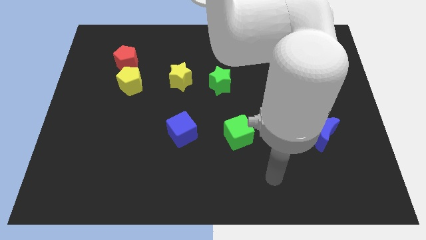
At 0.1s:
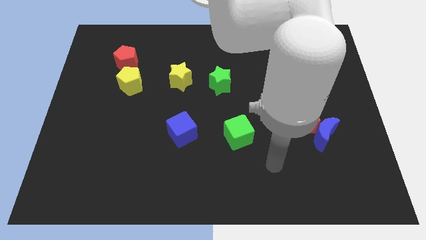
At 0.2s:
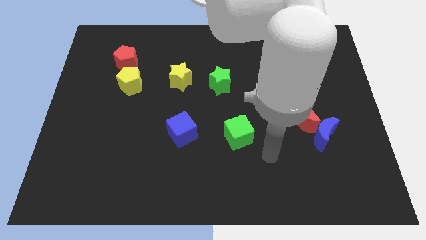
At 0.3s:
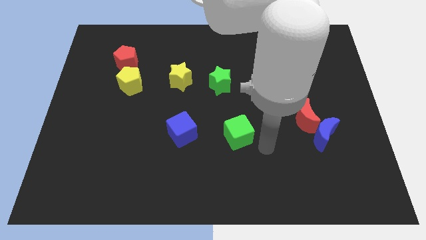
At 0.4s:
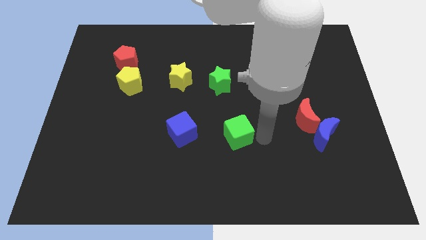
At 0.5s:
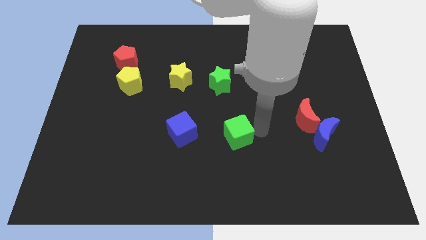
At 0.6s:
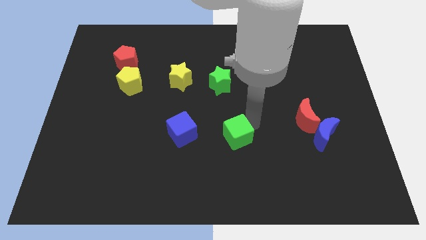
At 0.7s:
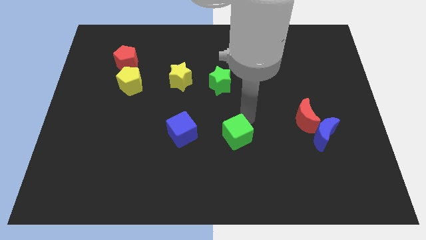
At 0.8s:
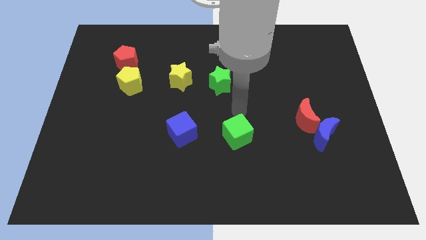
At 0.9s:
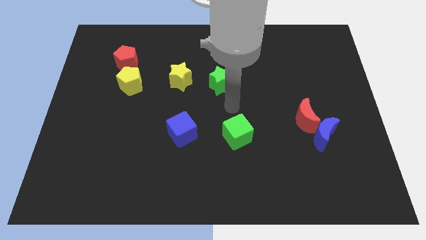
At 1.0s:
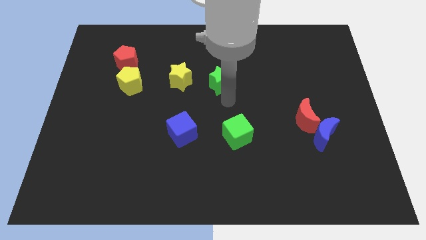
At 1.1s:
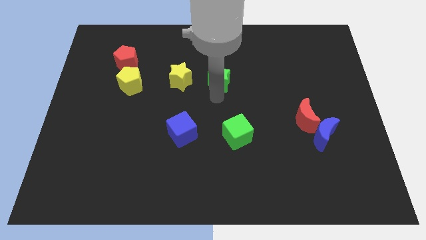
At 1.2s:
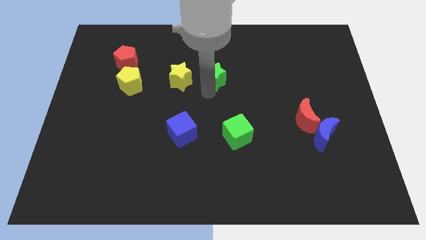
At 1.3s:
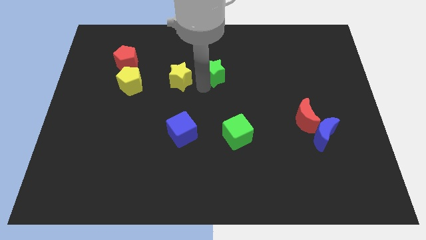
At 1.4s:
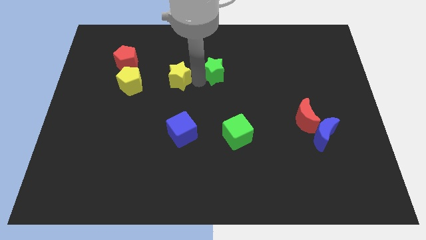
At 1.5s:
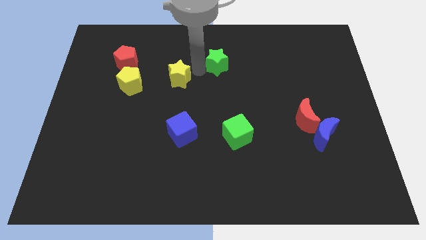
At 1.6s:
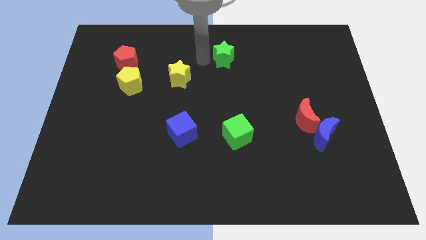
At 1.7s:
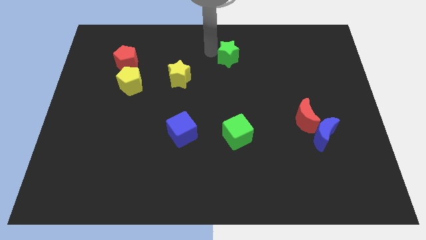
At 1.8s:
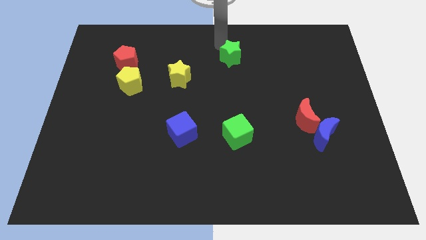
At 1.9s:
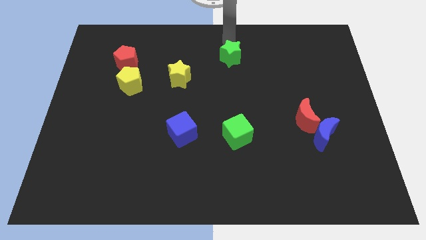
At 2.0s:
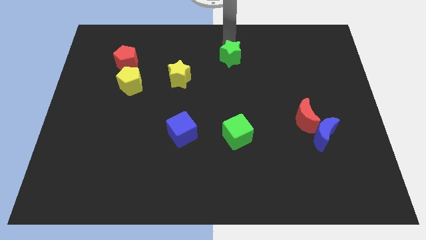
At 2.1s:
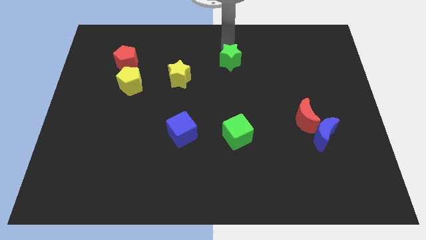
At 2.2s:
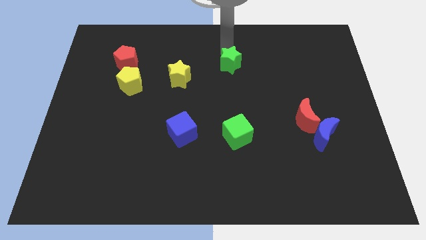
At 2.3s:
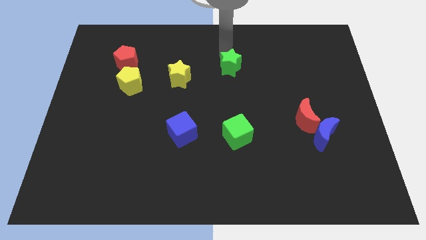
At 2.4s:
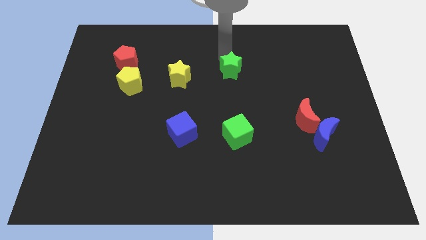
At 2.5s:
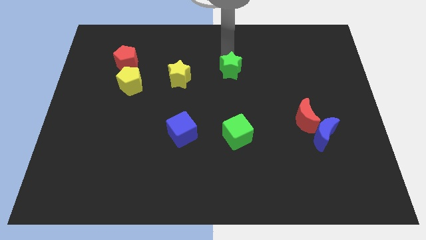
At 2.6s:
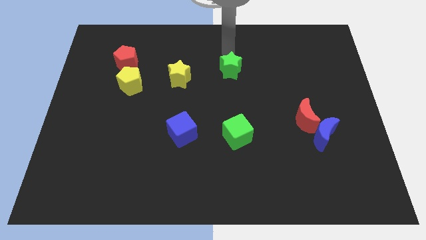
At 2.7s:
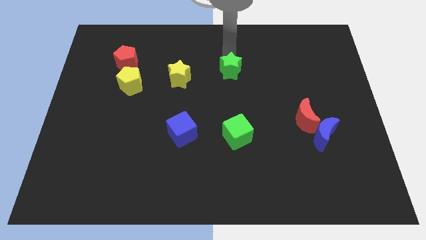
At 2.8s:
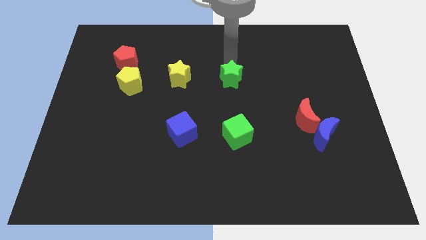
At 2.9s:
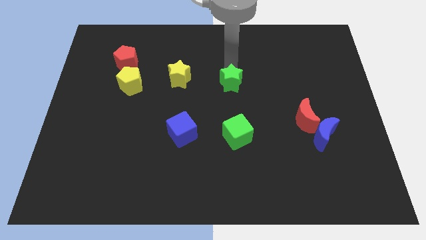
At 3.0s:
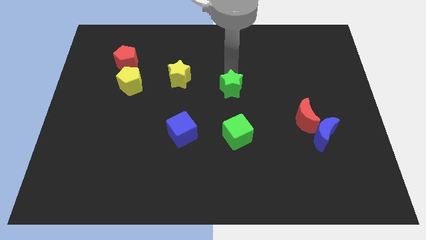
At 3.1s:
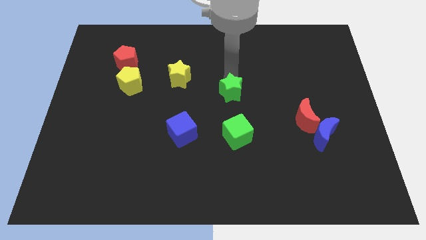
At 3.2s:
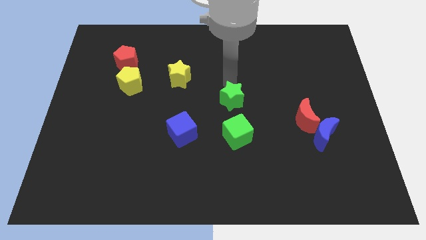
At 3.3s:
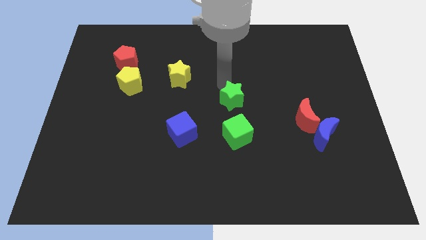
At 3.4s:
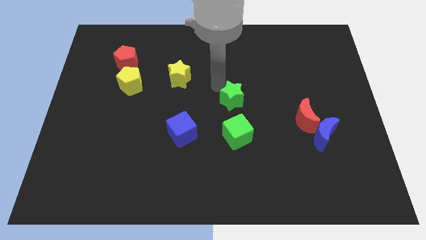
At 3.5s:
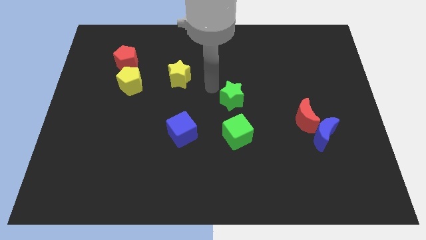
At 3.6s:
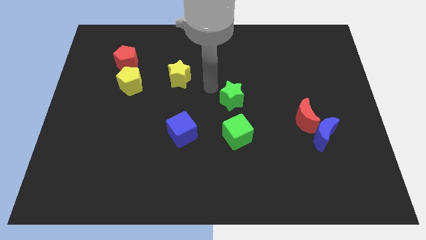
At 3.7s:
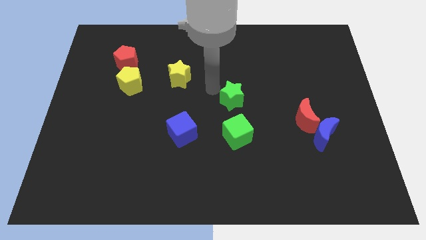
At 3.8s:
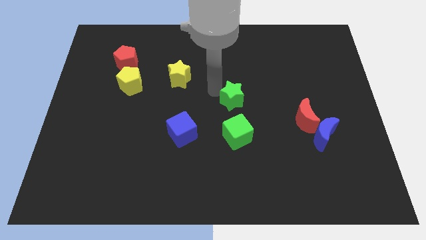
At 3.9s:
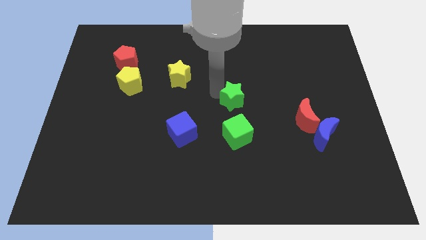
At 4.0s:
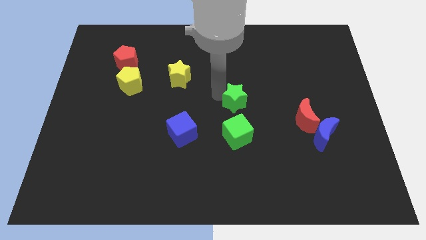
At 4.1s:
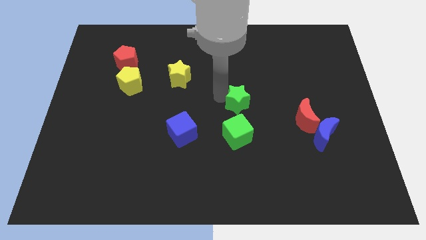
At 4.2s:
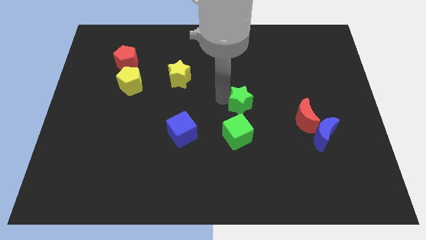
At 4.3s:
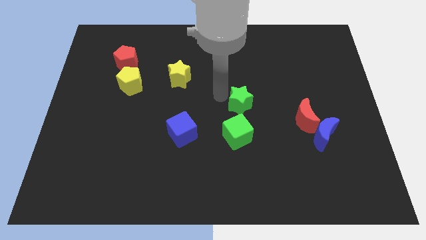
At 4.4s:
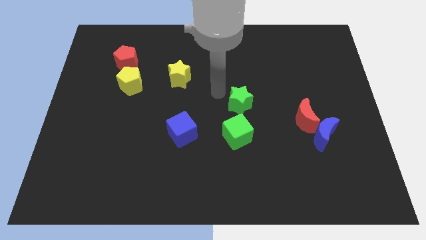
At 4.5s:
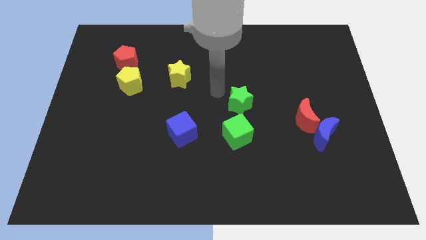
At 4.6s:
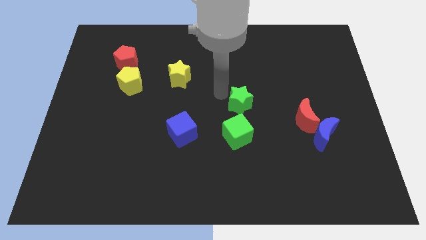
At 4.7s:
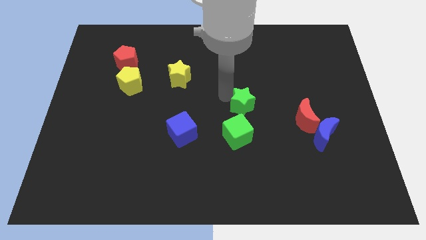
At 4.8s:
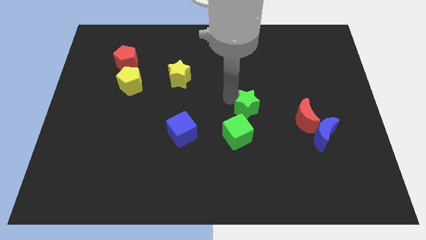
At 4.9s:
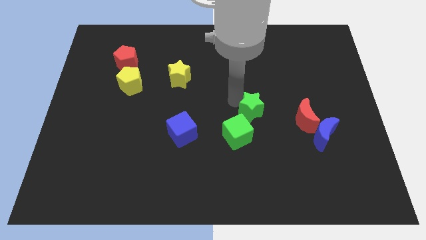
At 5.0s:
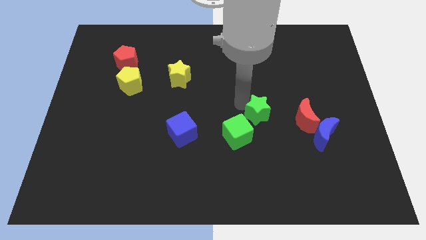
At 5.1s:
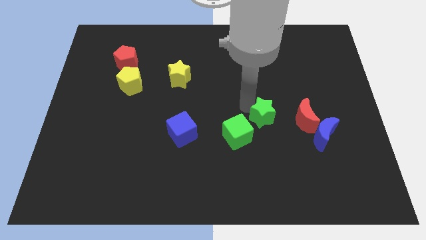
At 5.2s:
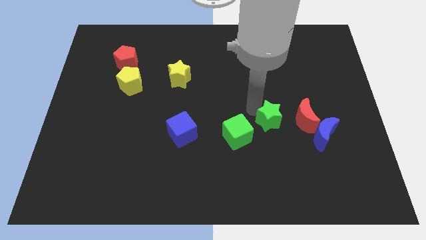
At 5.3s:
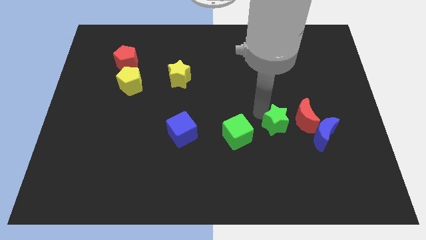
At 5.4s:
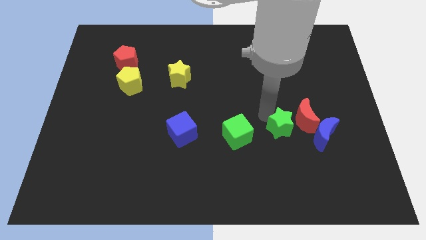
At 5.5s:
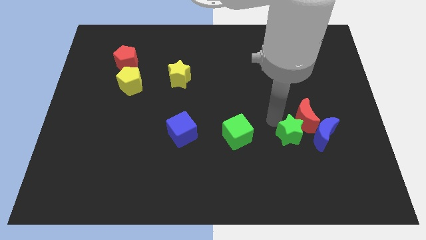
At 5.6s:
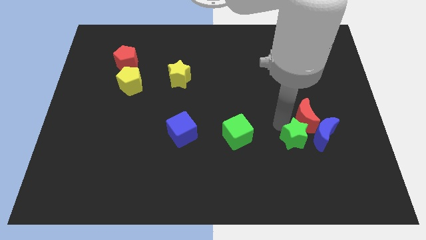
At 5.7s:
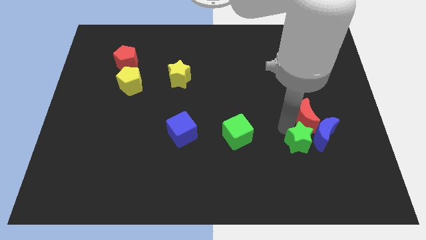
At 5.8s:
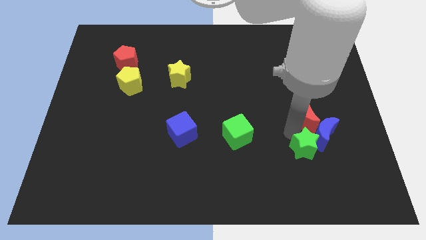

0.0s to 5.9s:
slide the green star to the bottom of the blue moon
